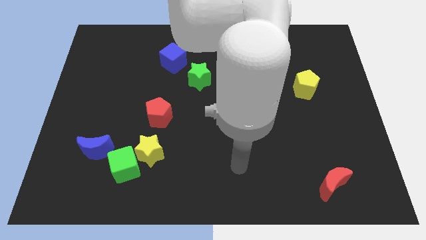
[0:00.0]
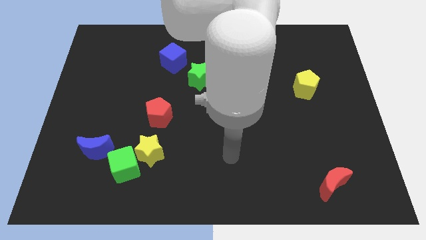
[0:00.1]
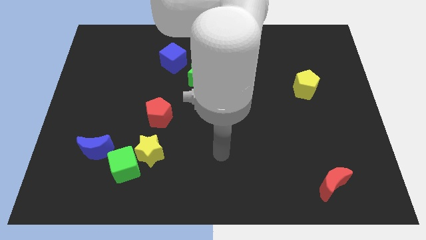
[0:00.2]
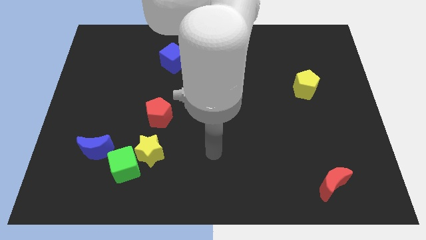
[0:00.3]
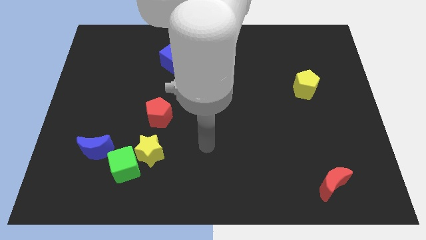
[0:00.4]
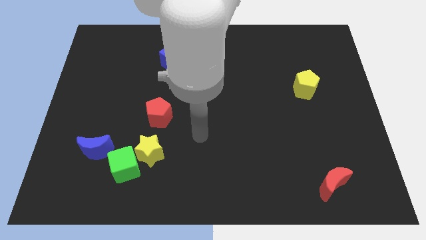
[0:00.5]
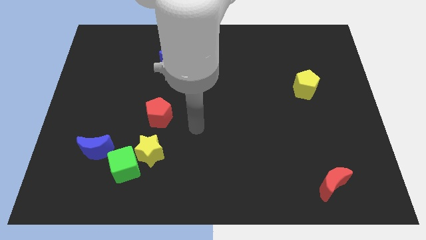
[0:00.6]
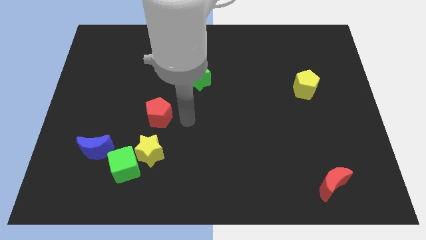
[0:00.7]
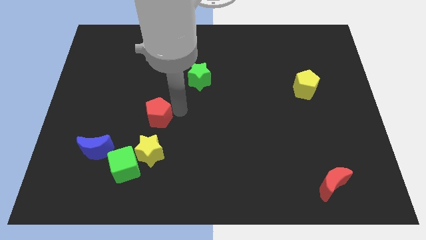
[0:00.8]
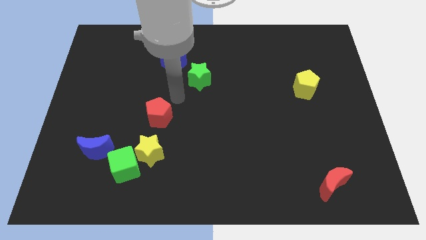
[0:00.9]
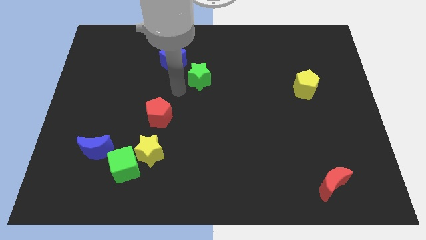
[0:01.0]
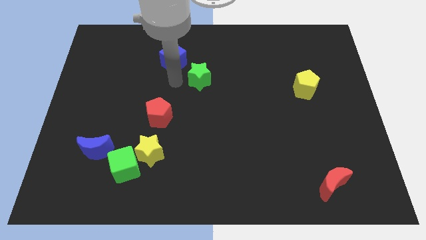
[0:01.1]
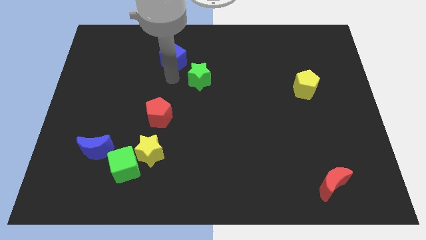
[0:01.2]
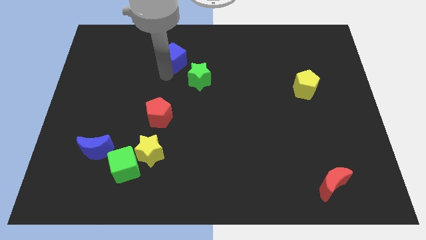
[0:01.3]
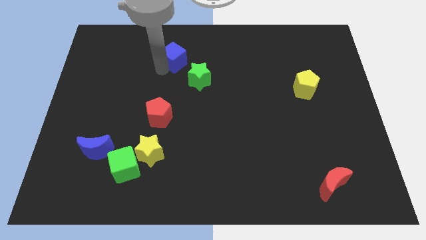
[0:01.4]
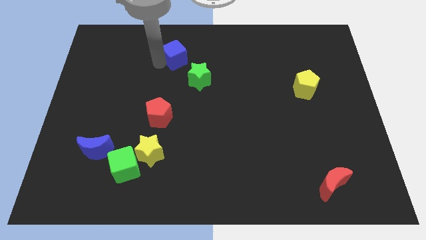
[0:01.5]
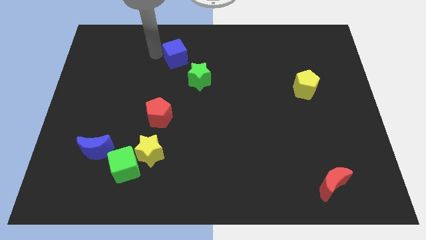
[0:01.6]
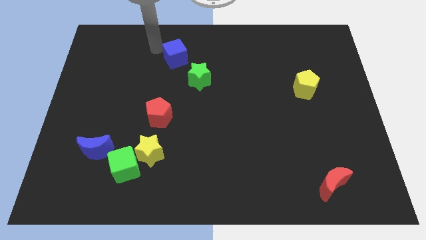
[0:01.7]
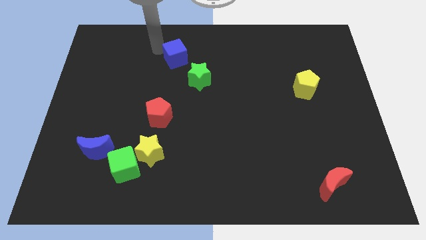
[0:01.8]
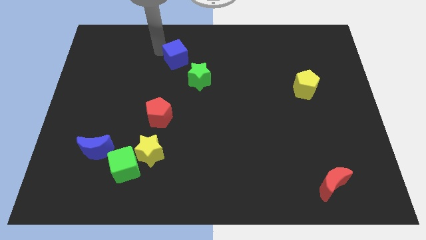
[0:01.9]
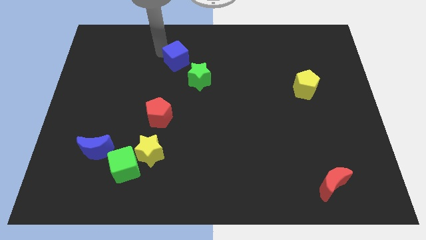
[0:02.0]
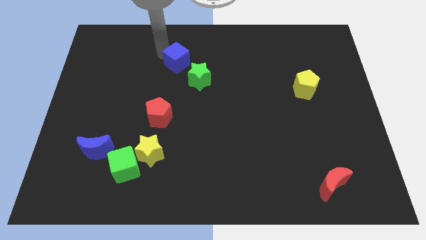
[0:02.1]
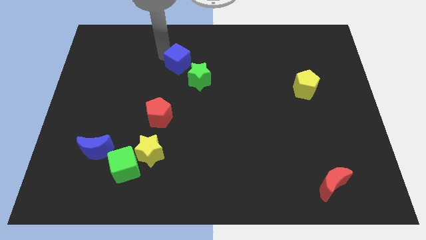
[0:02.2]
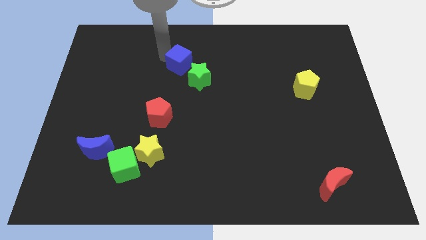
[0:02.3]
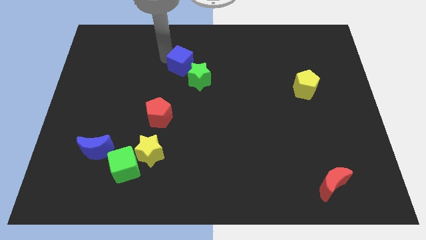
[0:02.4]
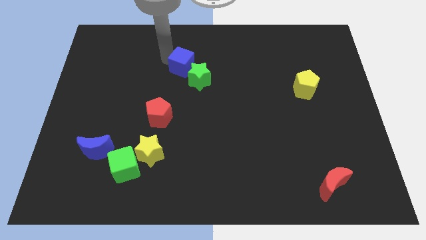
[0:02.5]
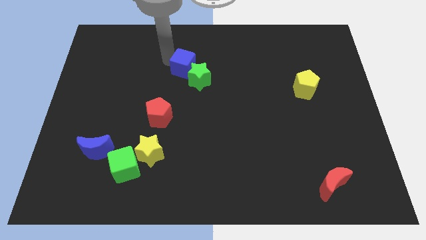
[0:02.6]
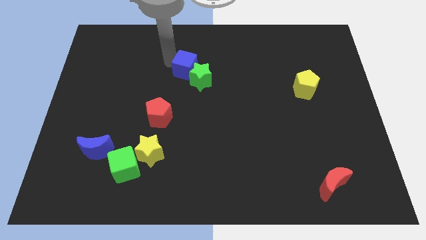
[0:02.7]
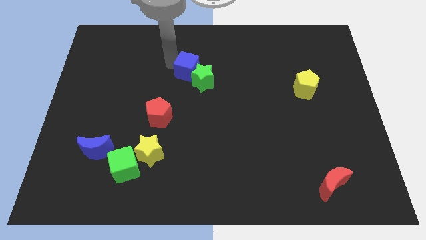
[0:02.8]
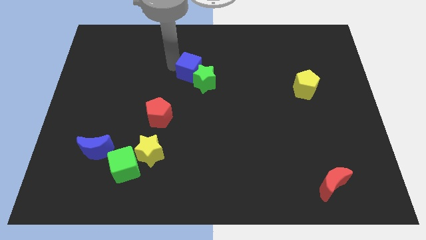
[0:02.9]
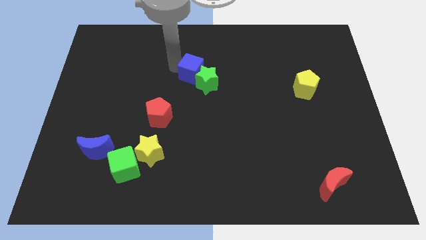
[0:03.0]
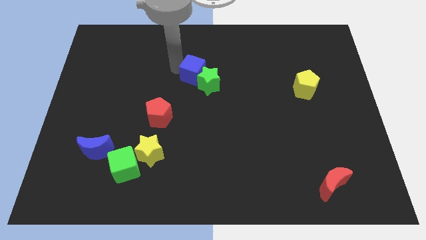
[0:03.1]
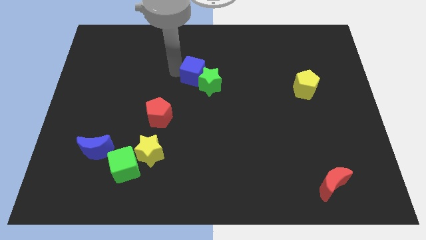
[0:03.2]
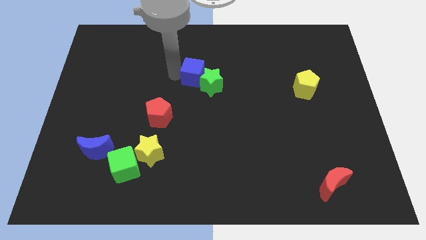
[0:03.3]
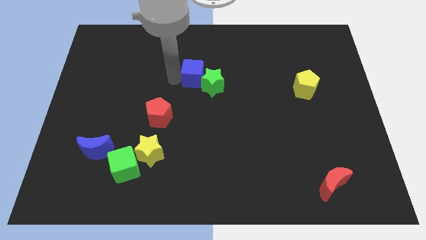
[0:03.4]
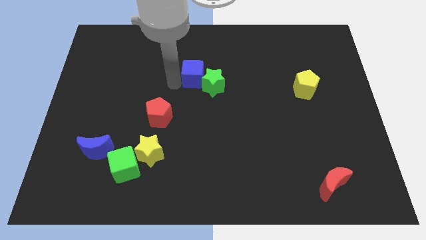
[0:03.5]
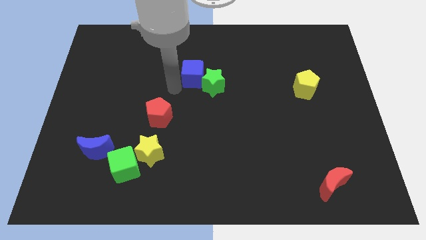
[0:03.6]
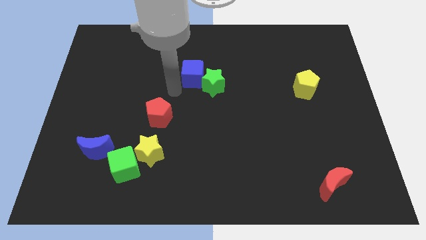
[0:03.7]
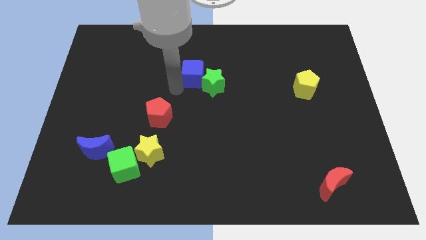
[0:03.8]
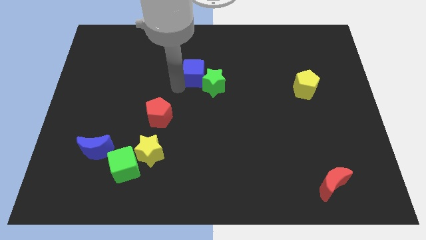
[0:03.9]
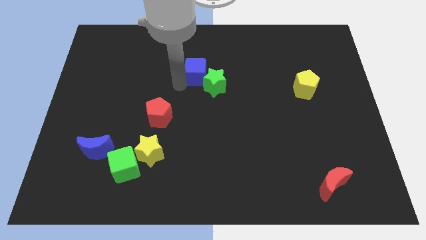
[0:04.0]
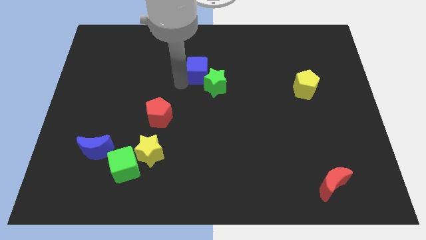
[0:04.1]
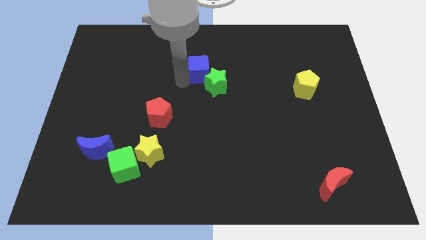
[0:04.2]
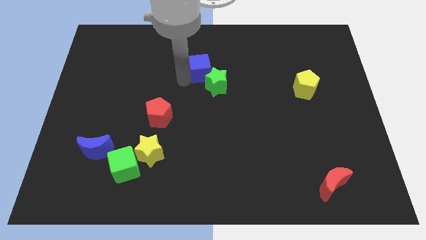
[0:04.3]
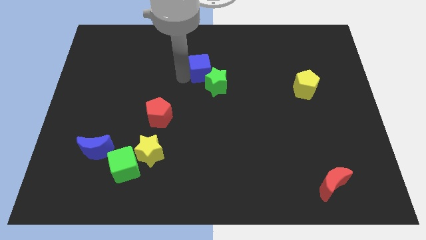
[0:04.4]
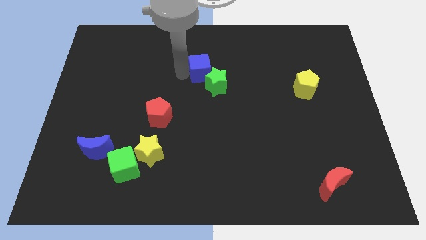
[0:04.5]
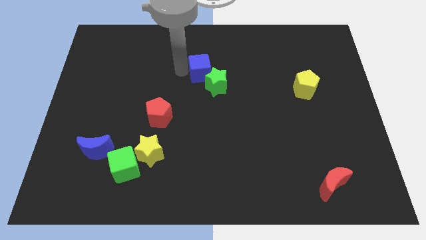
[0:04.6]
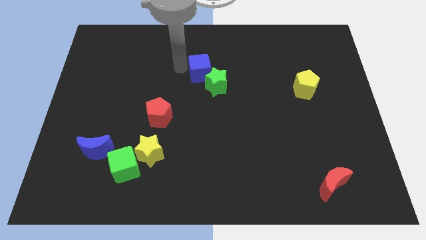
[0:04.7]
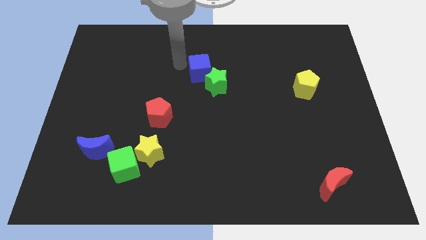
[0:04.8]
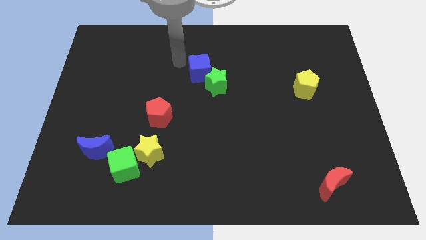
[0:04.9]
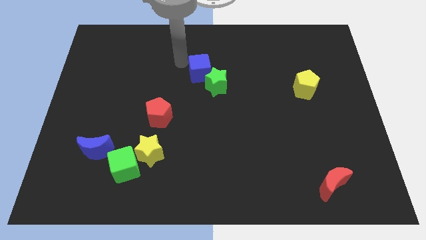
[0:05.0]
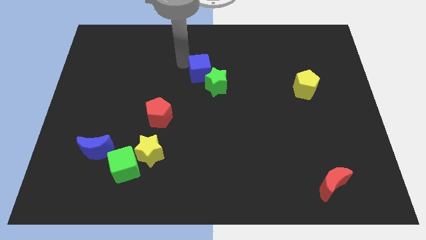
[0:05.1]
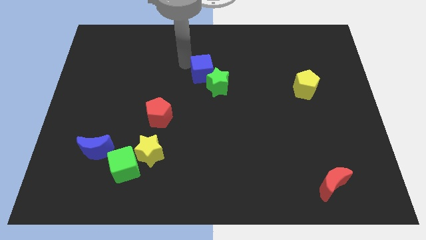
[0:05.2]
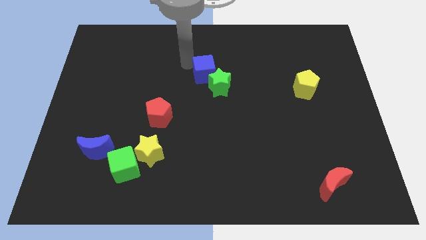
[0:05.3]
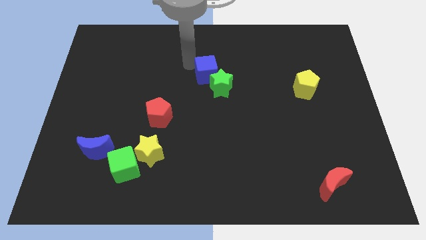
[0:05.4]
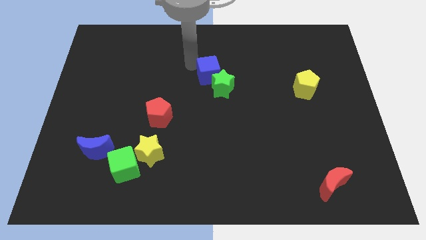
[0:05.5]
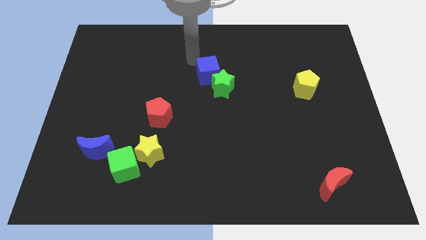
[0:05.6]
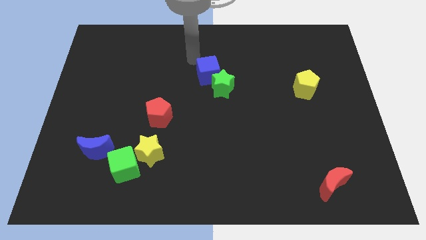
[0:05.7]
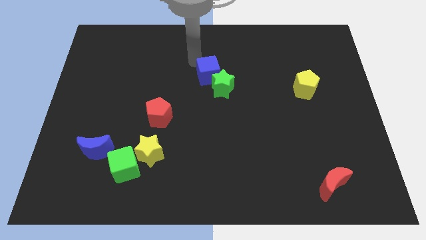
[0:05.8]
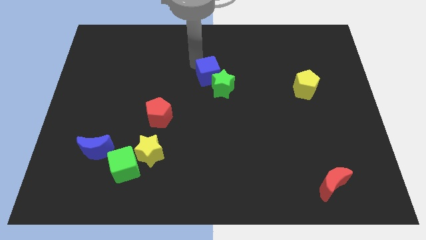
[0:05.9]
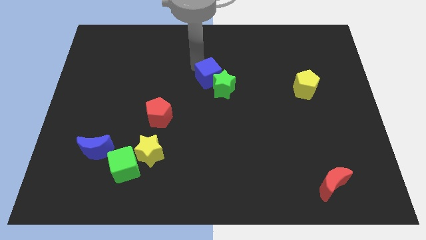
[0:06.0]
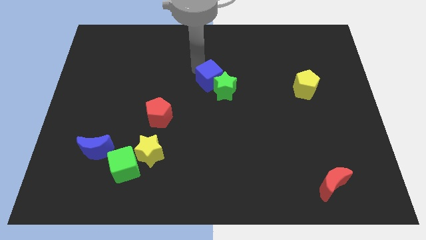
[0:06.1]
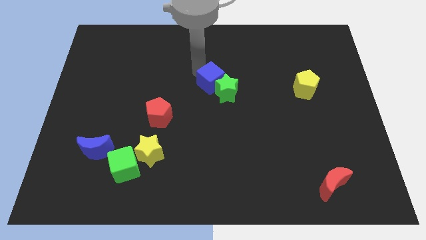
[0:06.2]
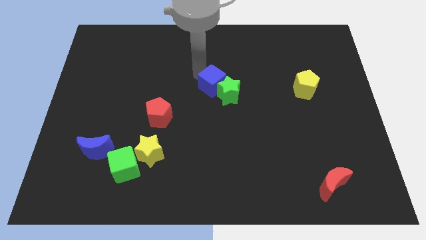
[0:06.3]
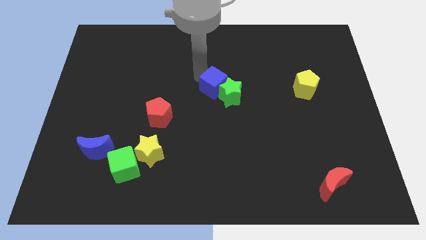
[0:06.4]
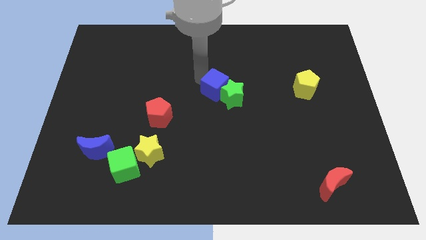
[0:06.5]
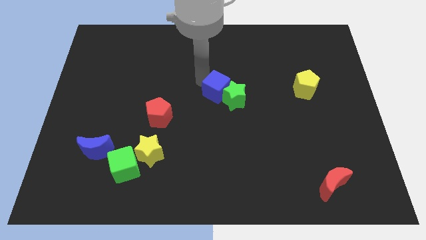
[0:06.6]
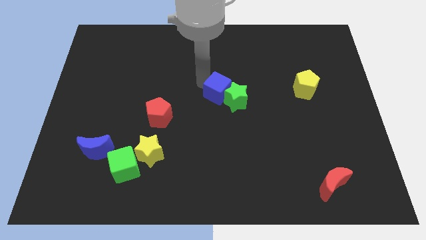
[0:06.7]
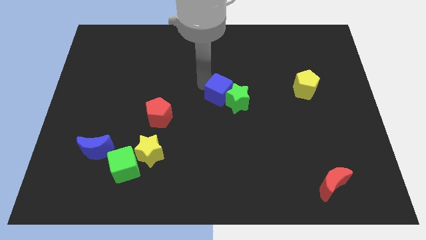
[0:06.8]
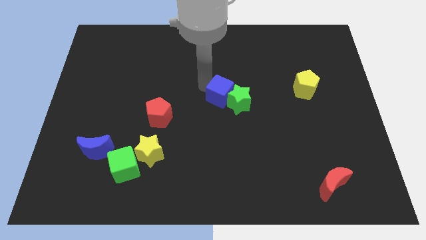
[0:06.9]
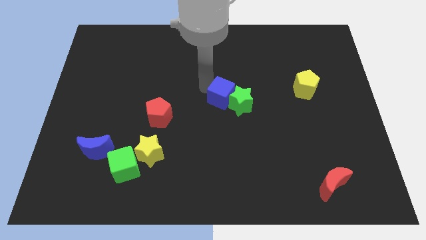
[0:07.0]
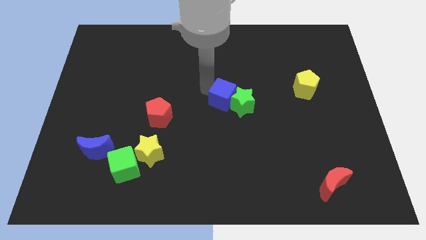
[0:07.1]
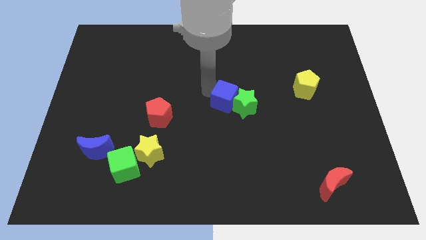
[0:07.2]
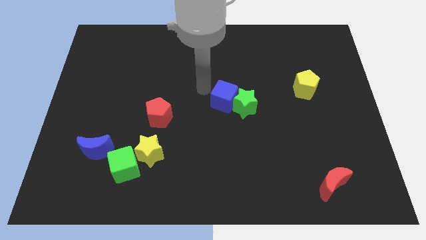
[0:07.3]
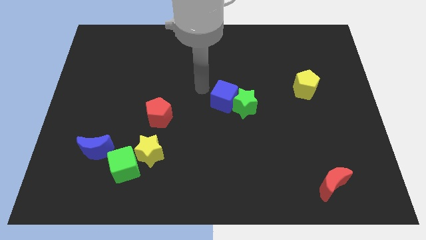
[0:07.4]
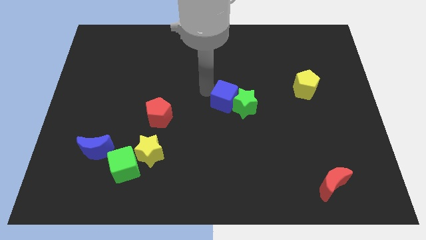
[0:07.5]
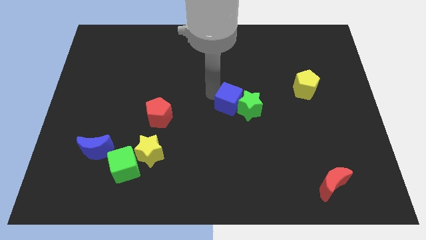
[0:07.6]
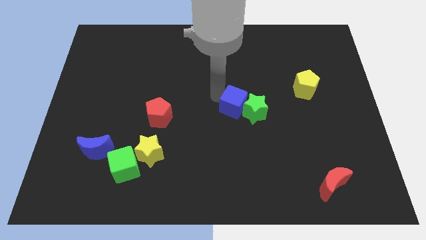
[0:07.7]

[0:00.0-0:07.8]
move the blue cube downwards and then to the right
